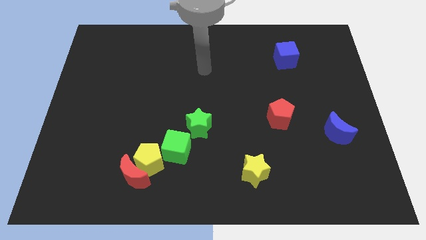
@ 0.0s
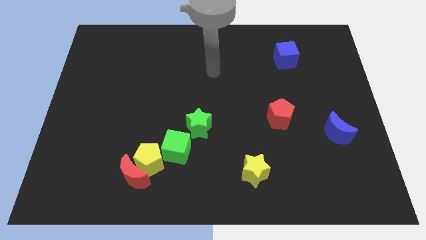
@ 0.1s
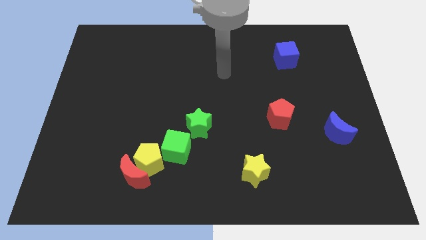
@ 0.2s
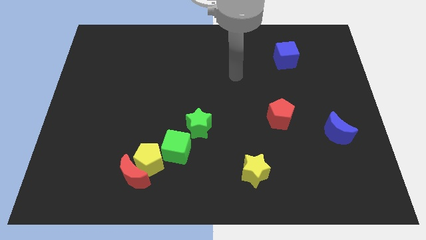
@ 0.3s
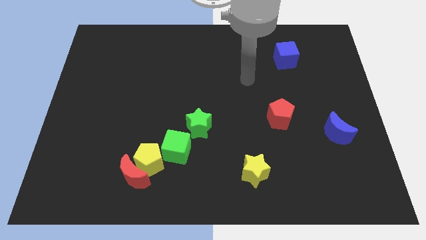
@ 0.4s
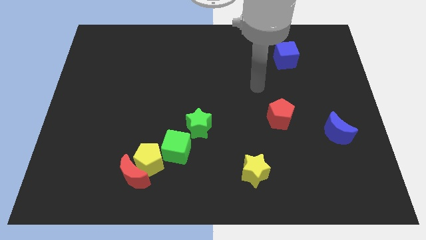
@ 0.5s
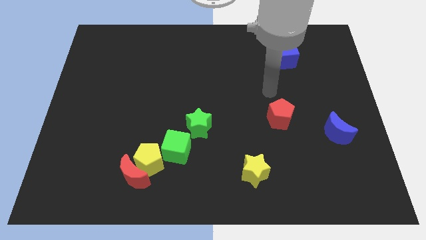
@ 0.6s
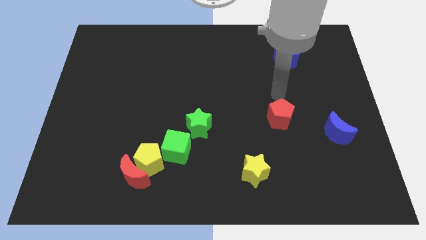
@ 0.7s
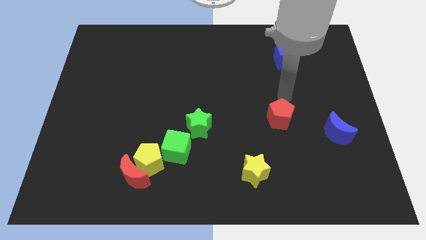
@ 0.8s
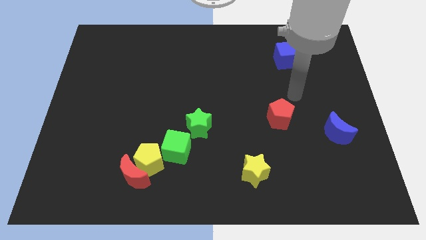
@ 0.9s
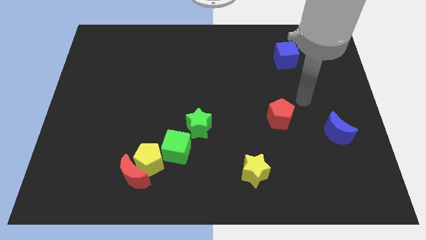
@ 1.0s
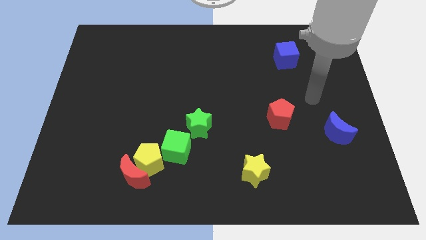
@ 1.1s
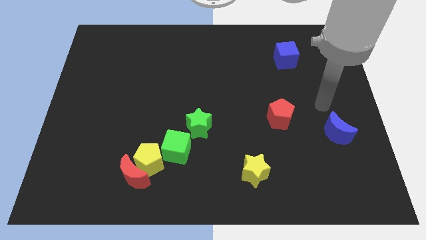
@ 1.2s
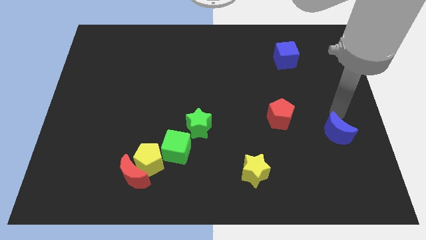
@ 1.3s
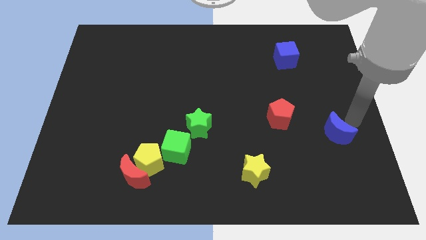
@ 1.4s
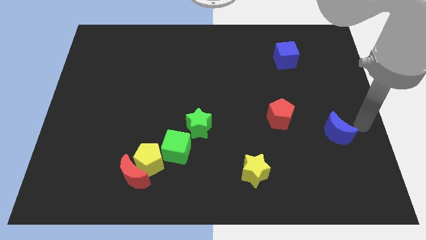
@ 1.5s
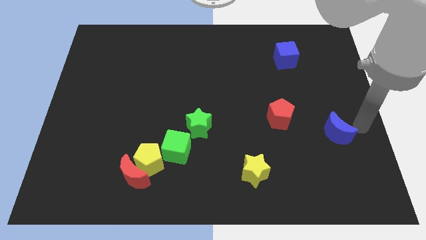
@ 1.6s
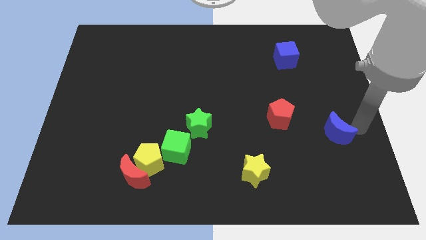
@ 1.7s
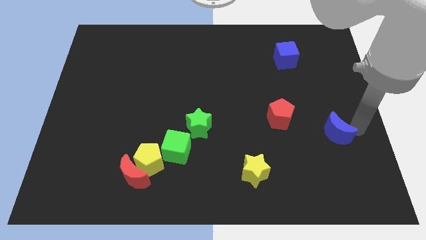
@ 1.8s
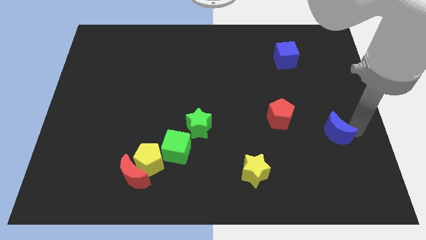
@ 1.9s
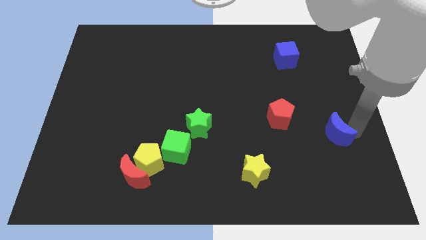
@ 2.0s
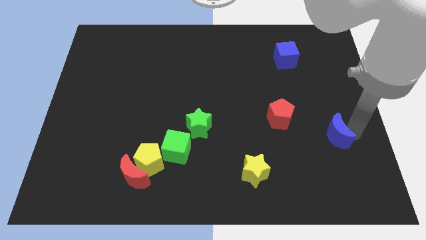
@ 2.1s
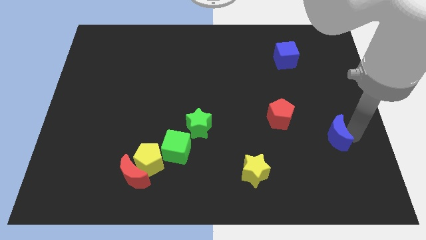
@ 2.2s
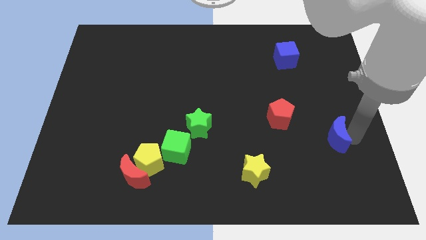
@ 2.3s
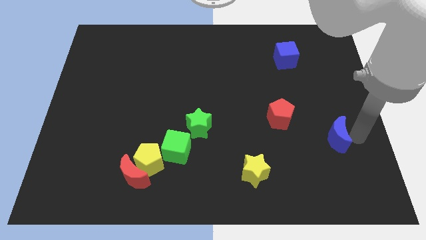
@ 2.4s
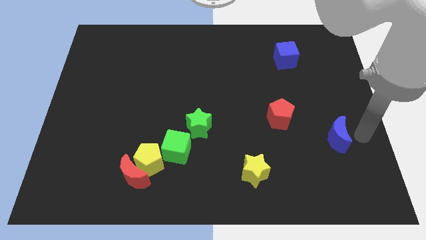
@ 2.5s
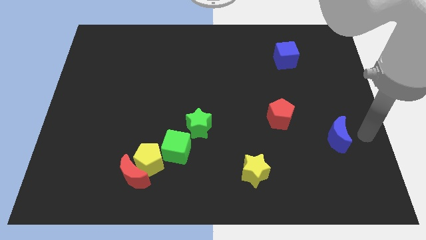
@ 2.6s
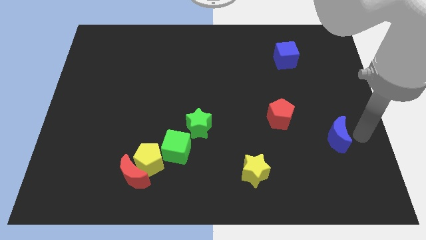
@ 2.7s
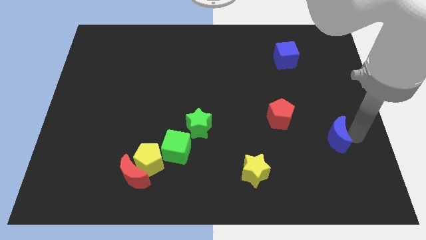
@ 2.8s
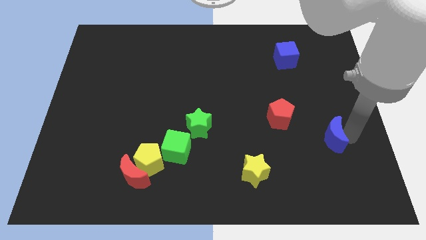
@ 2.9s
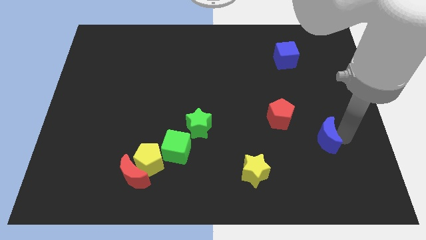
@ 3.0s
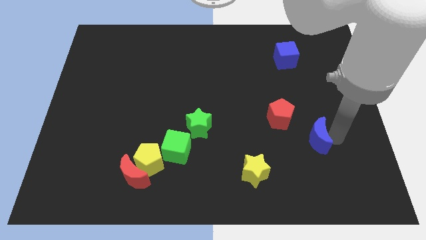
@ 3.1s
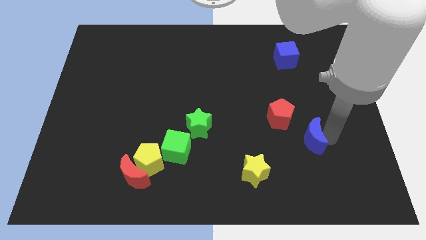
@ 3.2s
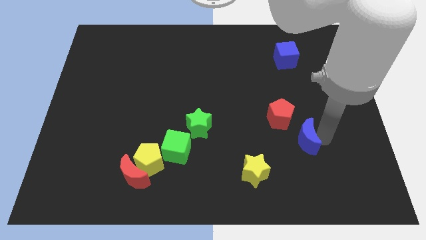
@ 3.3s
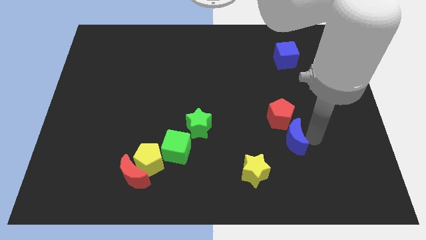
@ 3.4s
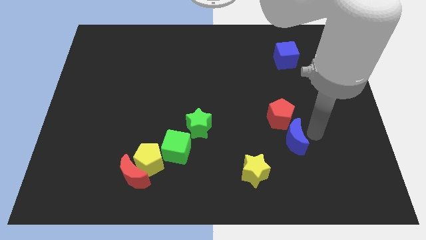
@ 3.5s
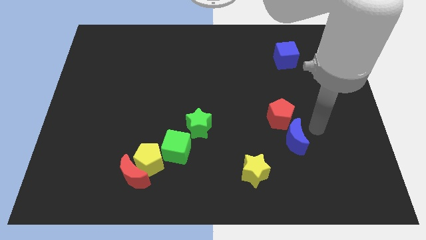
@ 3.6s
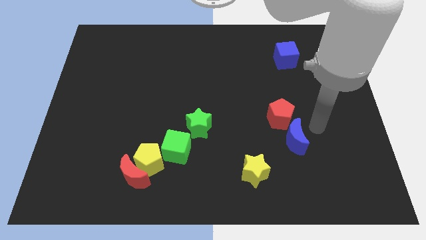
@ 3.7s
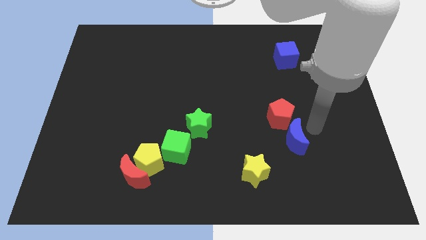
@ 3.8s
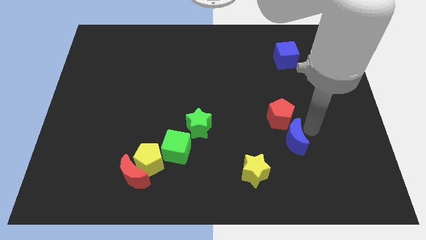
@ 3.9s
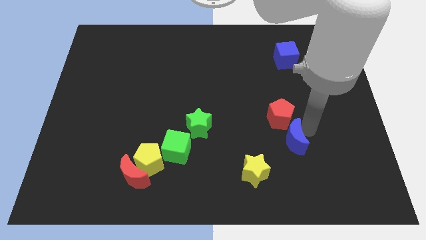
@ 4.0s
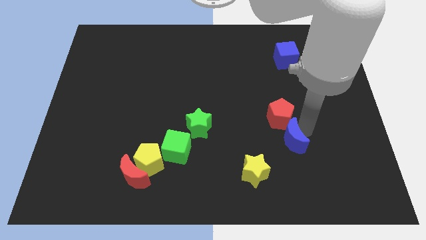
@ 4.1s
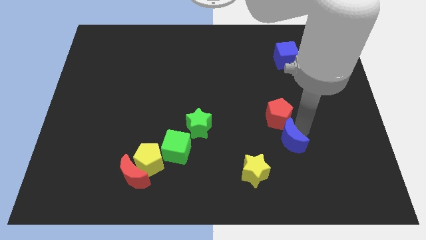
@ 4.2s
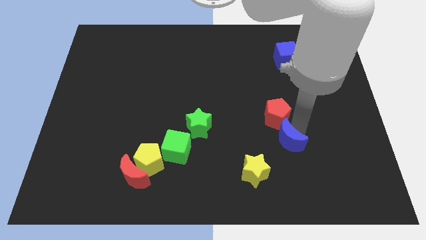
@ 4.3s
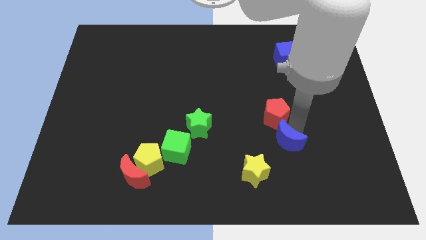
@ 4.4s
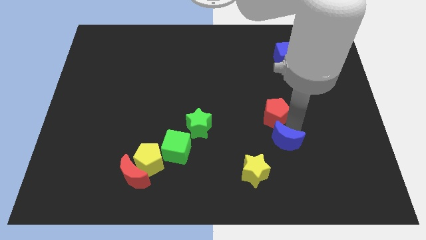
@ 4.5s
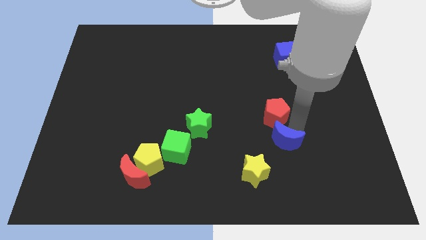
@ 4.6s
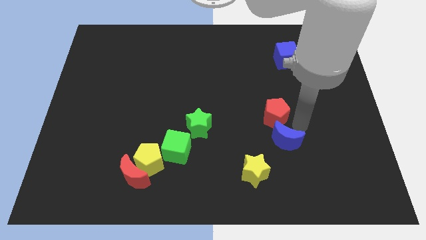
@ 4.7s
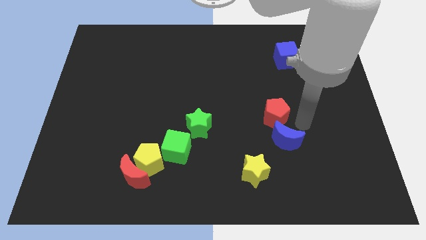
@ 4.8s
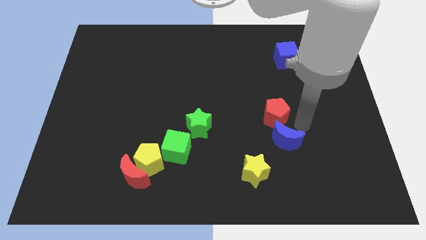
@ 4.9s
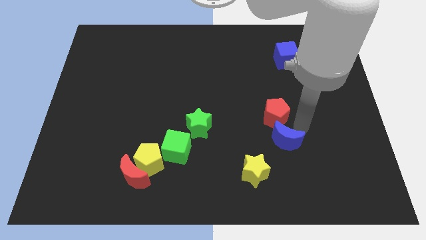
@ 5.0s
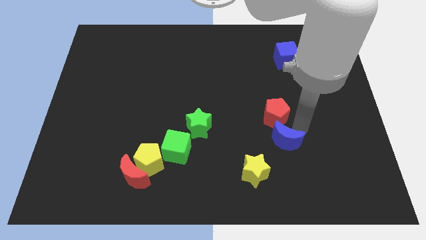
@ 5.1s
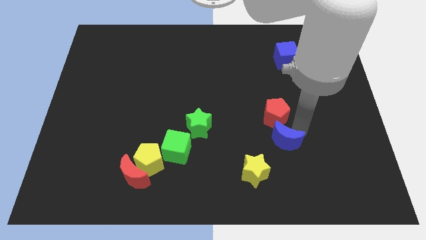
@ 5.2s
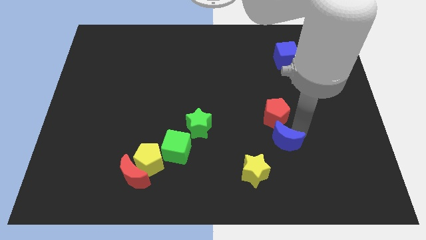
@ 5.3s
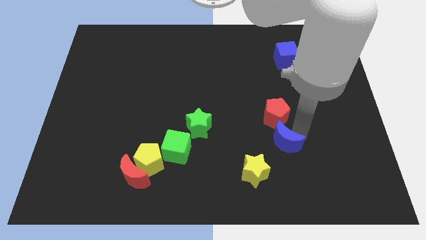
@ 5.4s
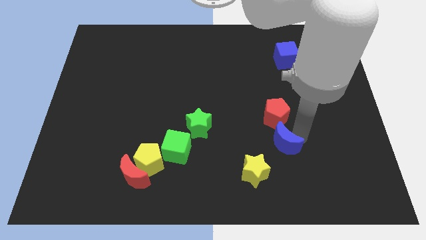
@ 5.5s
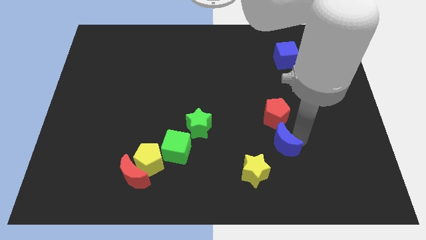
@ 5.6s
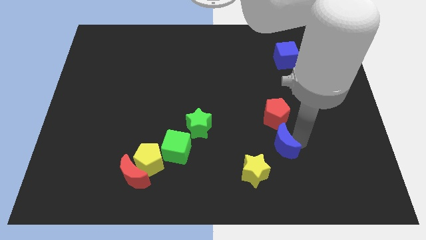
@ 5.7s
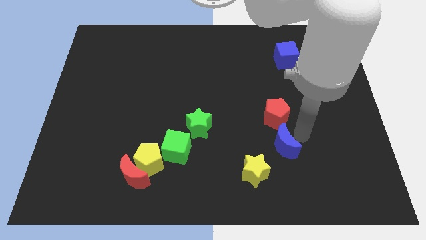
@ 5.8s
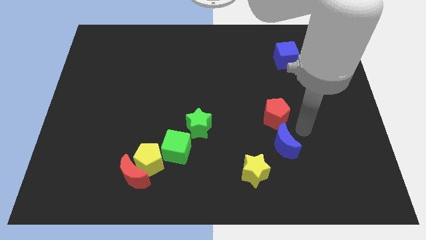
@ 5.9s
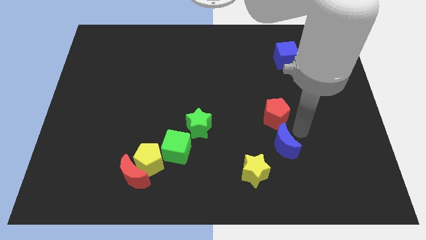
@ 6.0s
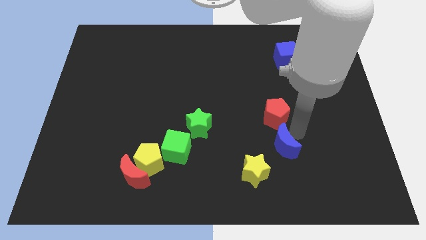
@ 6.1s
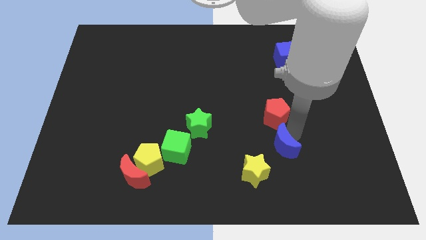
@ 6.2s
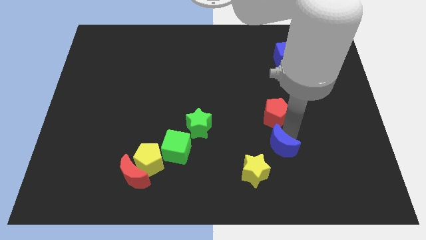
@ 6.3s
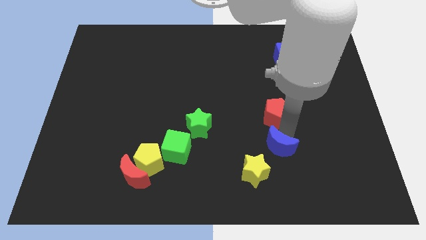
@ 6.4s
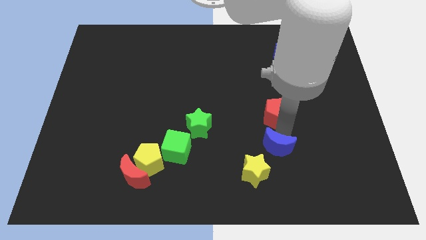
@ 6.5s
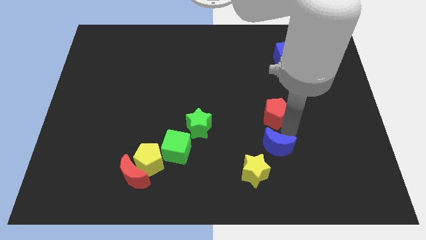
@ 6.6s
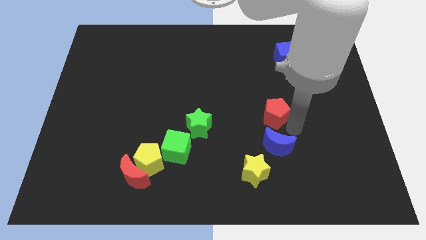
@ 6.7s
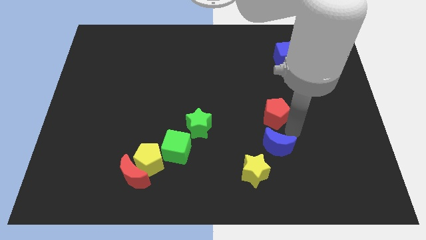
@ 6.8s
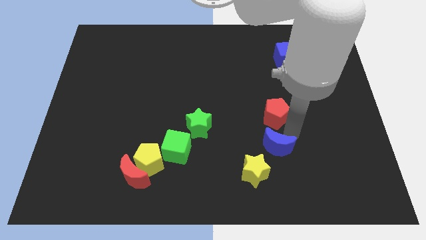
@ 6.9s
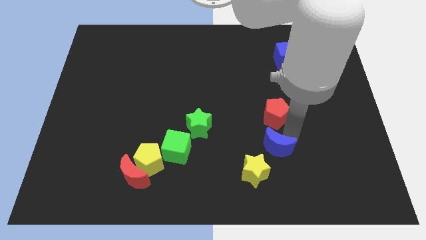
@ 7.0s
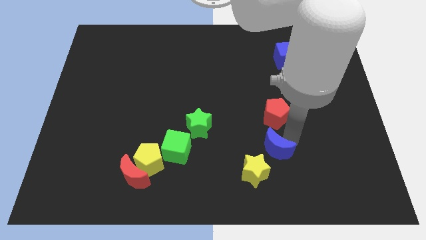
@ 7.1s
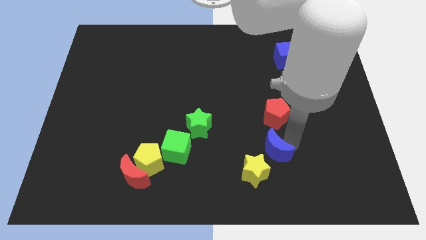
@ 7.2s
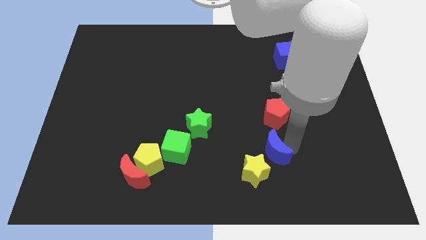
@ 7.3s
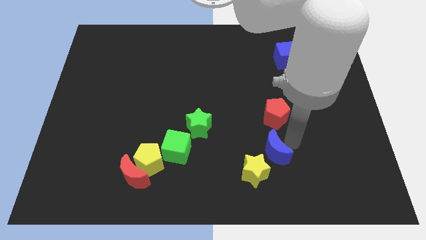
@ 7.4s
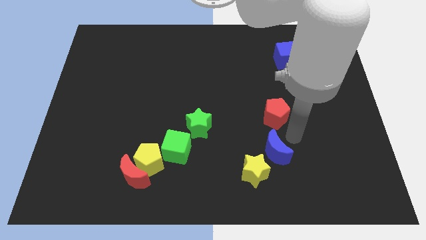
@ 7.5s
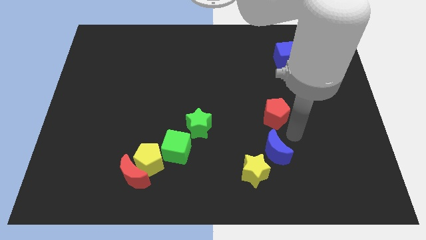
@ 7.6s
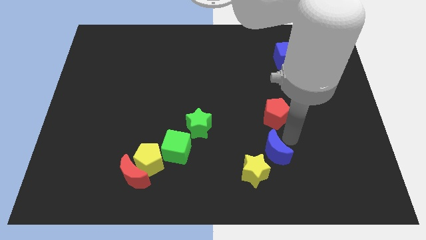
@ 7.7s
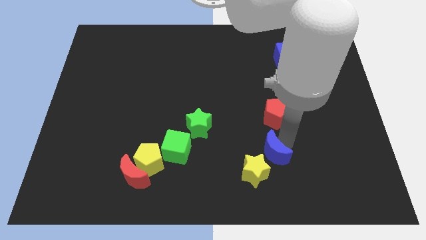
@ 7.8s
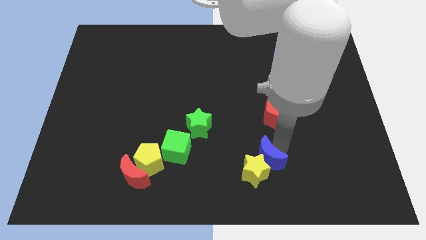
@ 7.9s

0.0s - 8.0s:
slide the blue moon towards the yellow star
